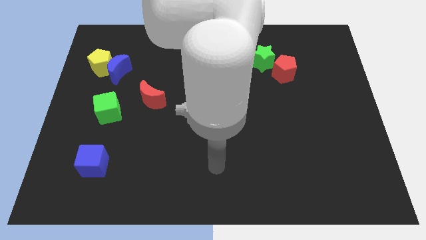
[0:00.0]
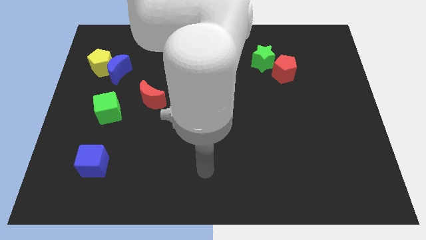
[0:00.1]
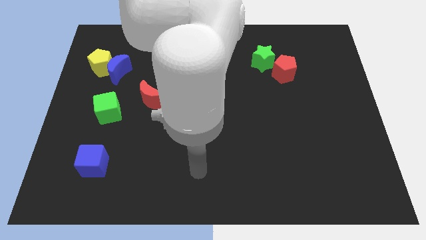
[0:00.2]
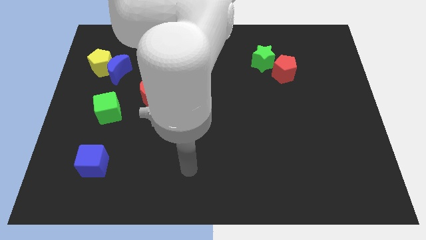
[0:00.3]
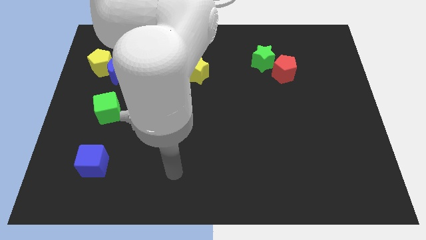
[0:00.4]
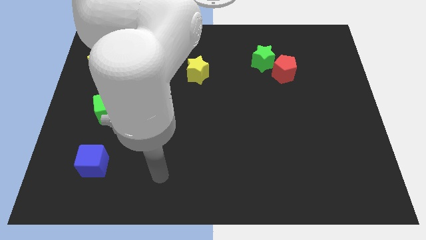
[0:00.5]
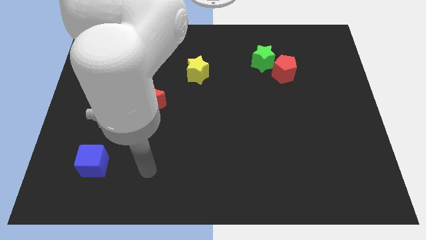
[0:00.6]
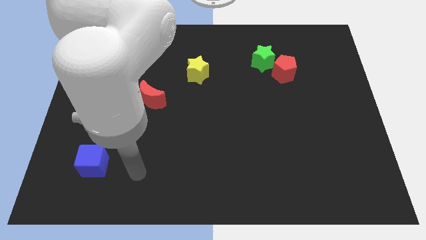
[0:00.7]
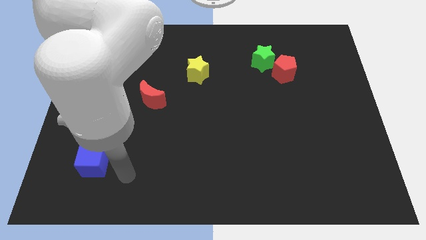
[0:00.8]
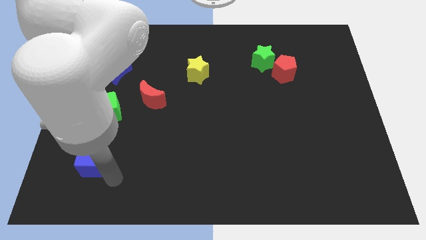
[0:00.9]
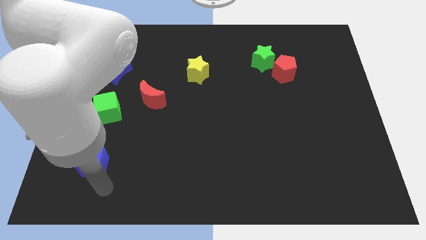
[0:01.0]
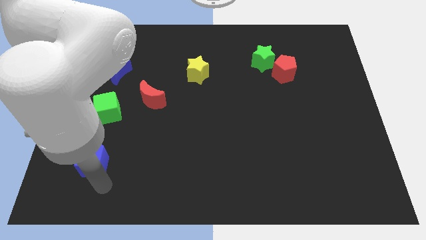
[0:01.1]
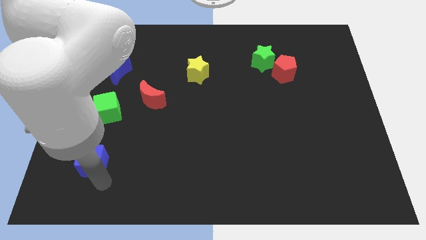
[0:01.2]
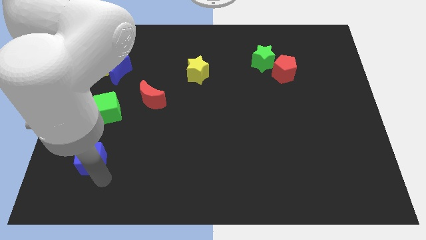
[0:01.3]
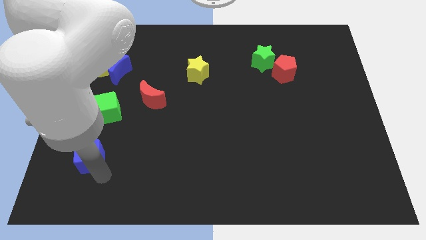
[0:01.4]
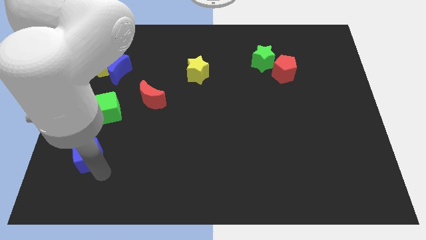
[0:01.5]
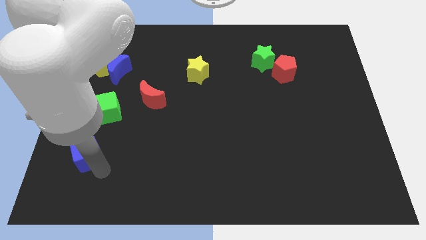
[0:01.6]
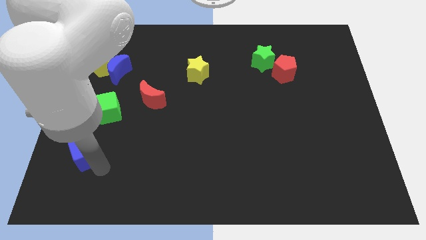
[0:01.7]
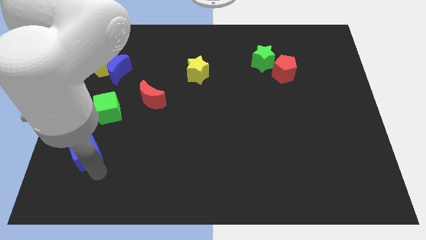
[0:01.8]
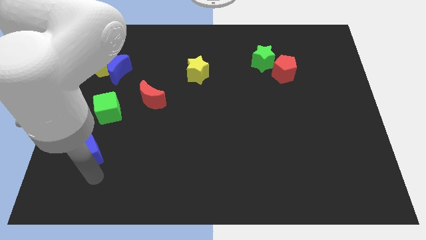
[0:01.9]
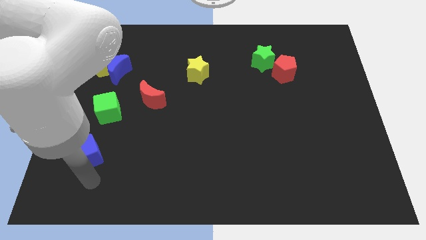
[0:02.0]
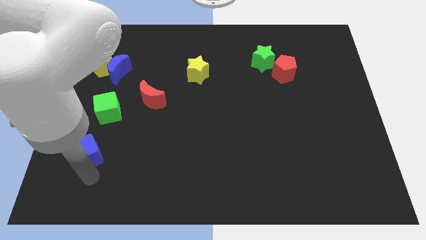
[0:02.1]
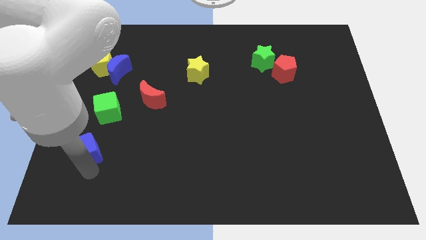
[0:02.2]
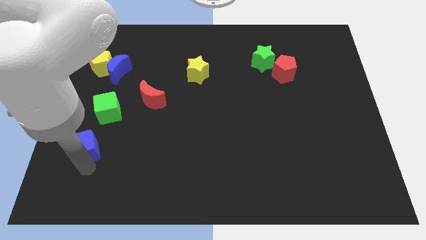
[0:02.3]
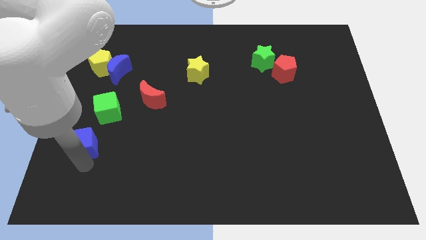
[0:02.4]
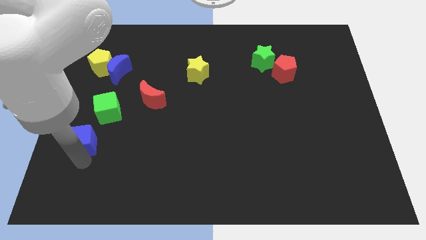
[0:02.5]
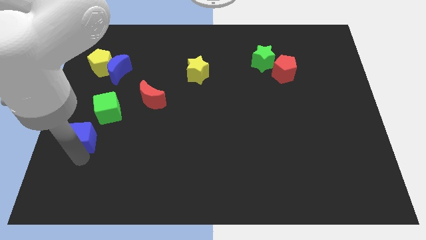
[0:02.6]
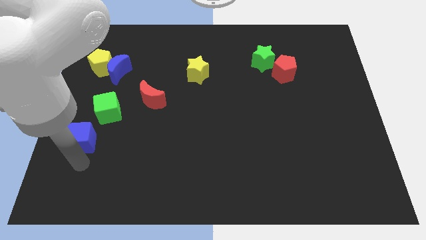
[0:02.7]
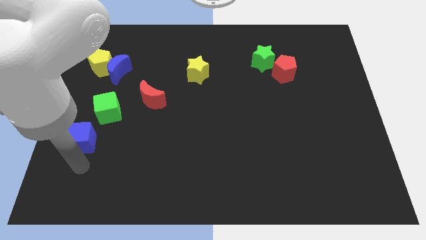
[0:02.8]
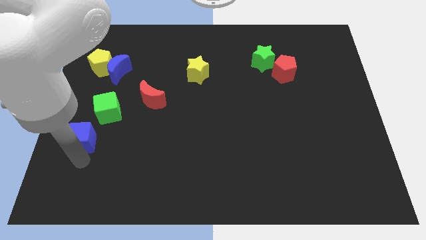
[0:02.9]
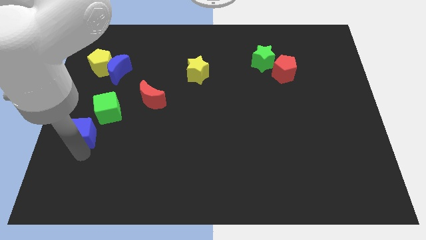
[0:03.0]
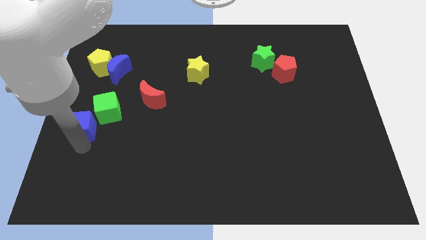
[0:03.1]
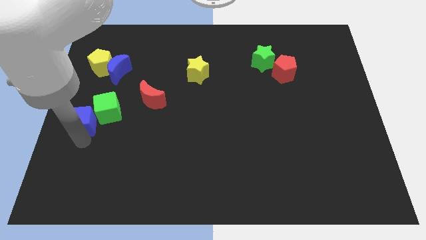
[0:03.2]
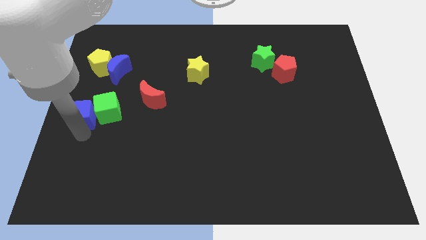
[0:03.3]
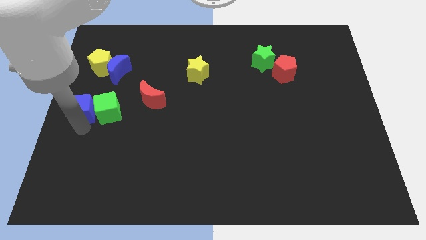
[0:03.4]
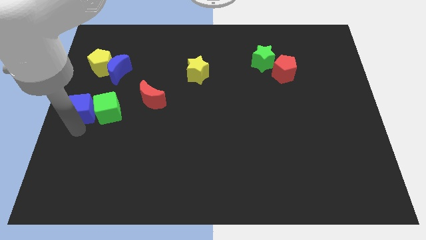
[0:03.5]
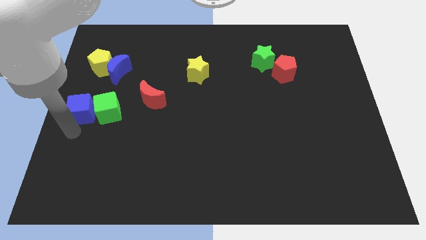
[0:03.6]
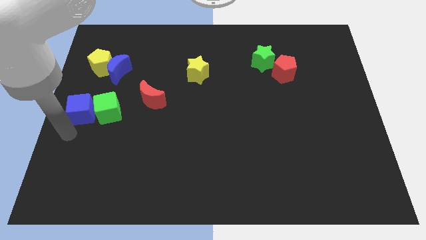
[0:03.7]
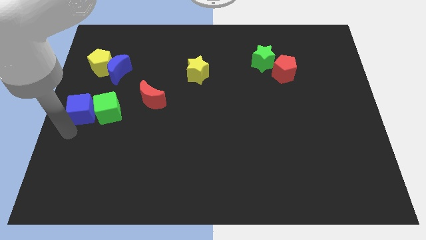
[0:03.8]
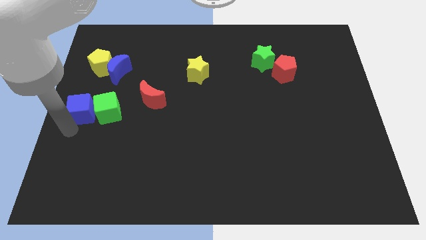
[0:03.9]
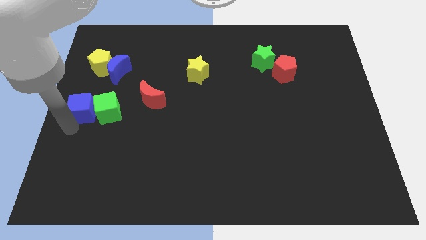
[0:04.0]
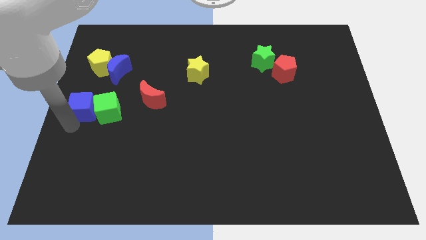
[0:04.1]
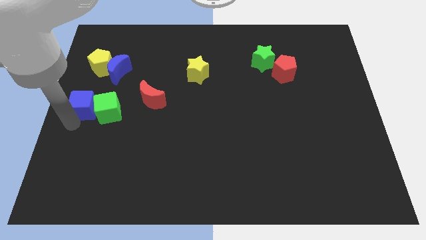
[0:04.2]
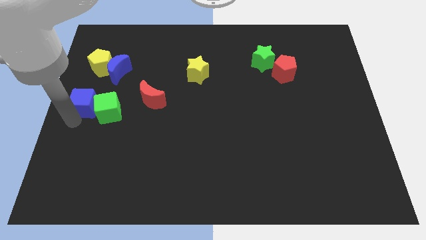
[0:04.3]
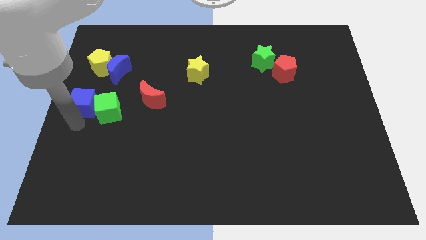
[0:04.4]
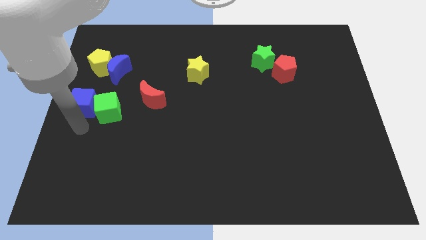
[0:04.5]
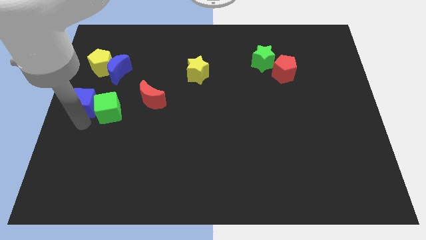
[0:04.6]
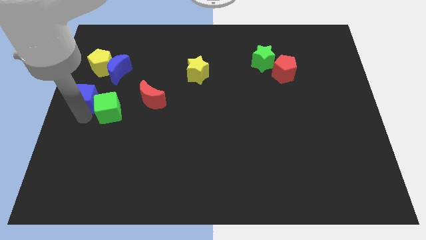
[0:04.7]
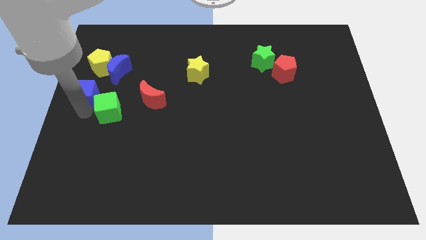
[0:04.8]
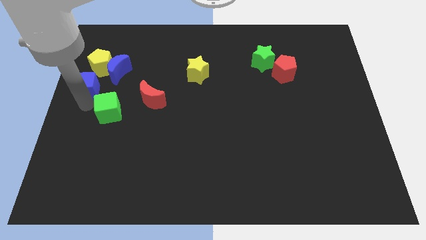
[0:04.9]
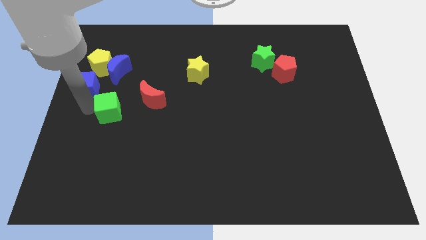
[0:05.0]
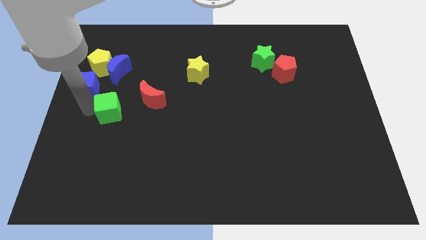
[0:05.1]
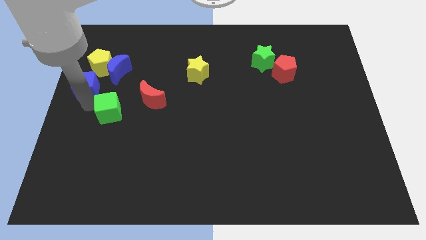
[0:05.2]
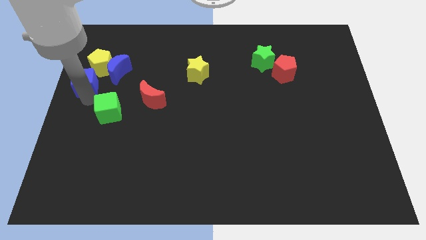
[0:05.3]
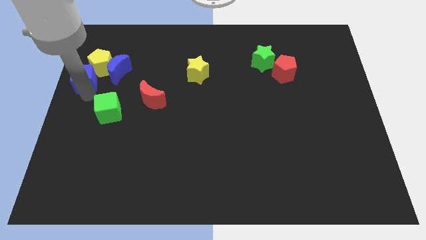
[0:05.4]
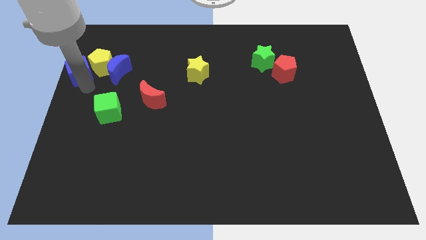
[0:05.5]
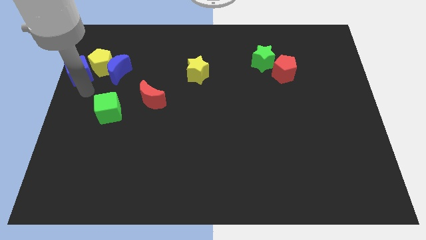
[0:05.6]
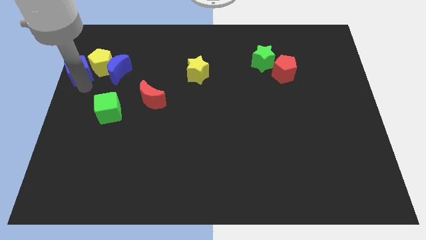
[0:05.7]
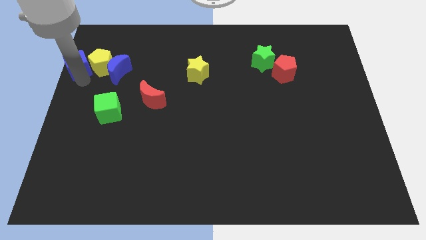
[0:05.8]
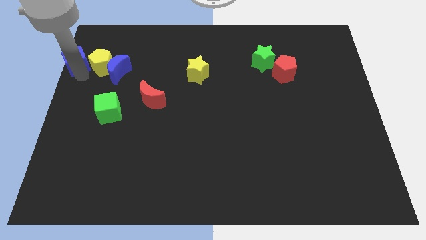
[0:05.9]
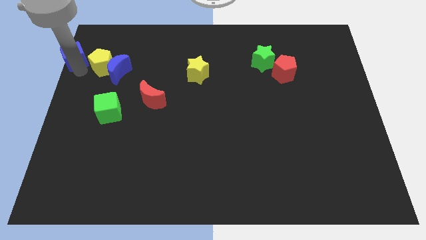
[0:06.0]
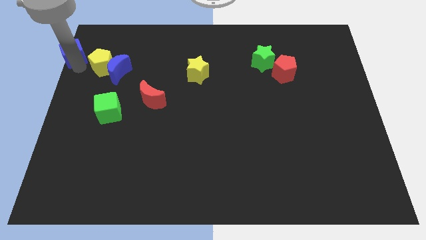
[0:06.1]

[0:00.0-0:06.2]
slide the blue cube to the top left corner
